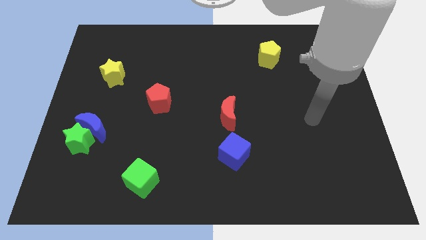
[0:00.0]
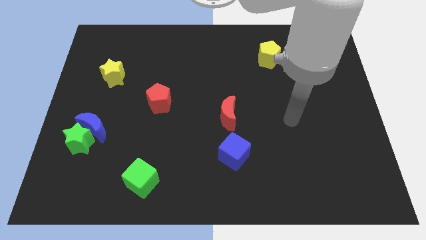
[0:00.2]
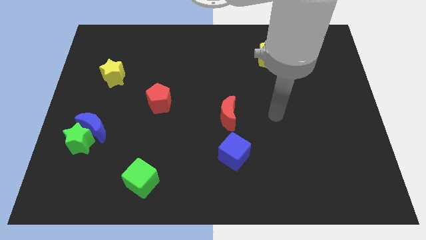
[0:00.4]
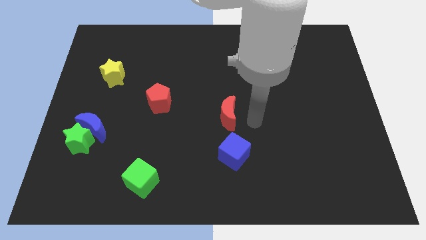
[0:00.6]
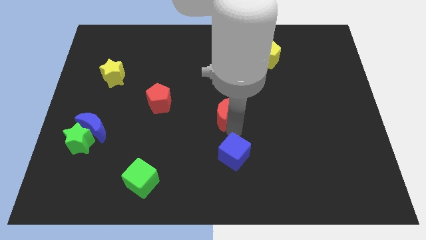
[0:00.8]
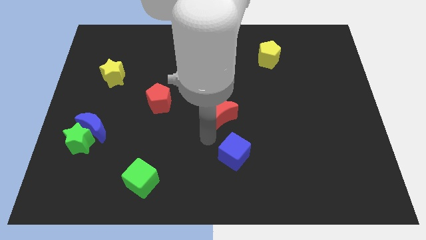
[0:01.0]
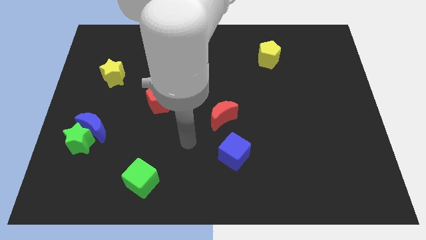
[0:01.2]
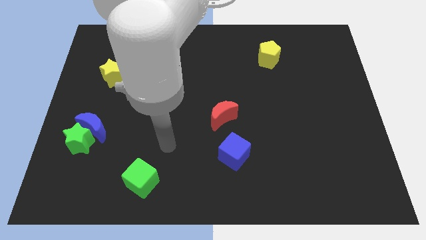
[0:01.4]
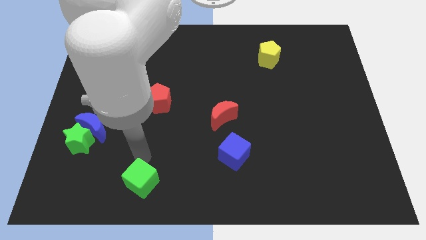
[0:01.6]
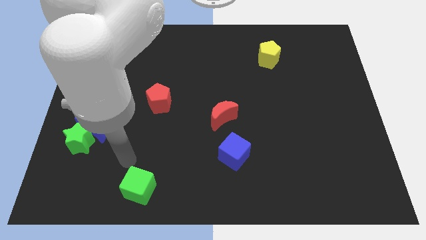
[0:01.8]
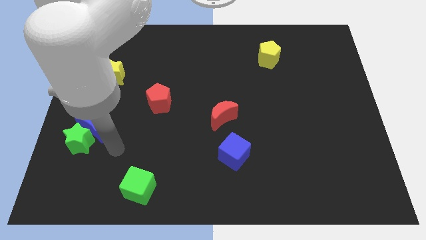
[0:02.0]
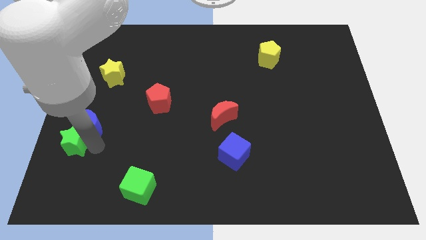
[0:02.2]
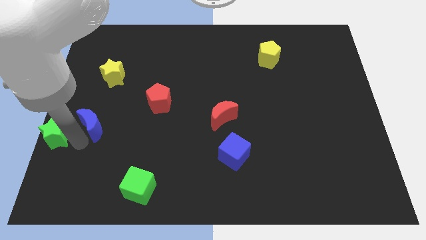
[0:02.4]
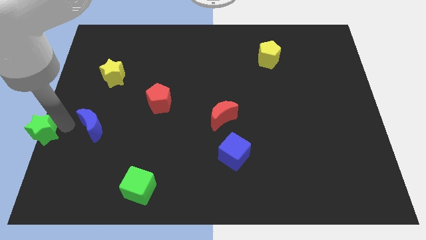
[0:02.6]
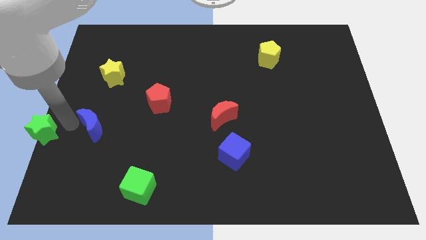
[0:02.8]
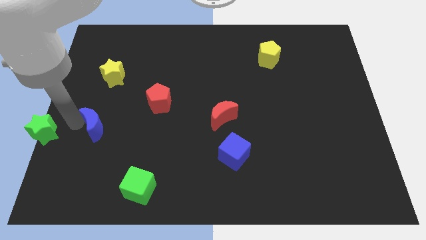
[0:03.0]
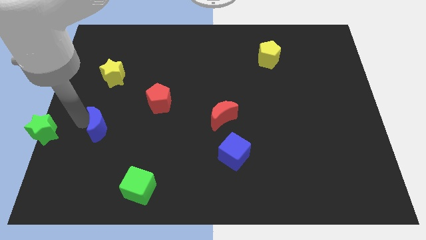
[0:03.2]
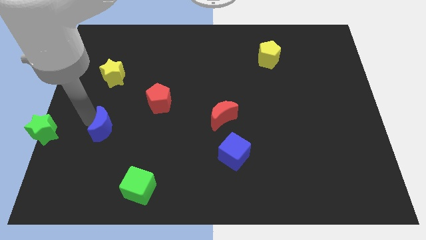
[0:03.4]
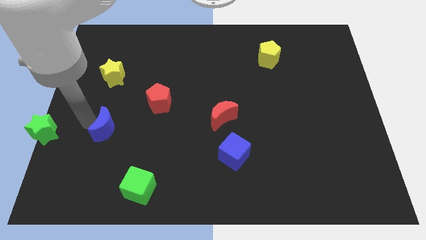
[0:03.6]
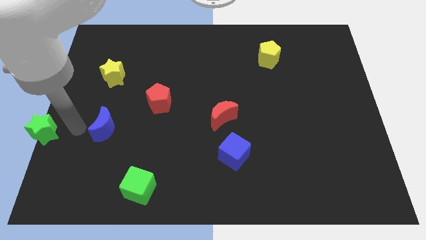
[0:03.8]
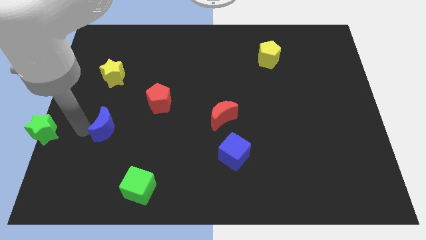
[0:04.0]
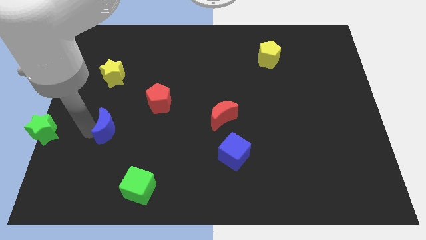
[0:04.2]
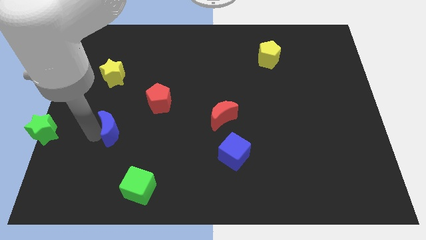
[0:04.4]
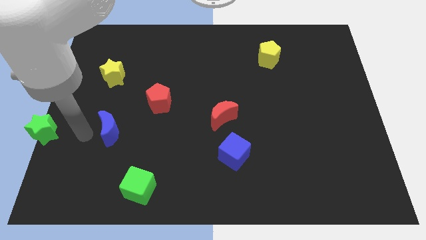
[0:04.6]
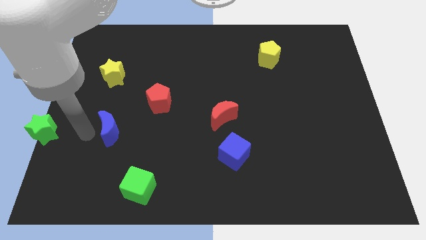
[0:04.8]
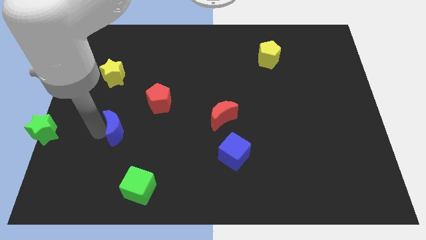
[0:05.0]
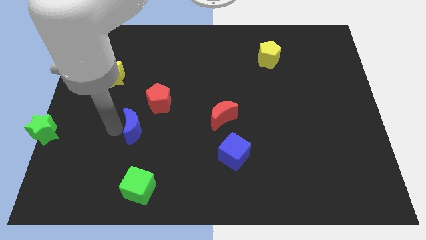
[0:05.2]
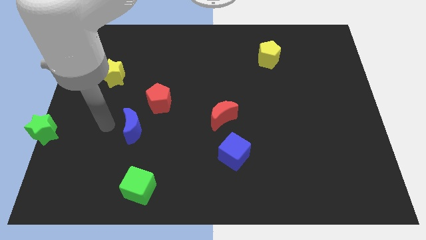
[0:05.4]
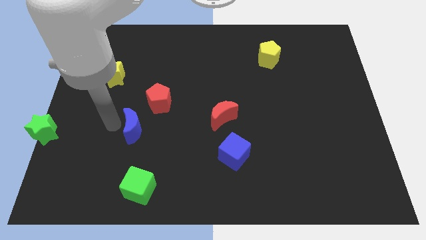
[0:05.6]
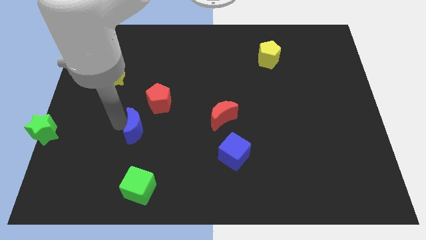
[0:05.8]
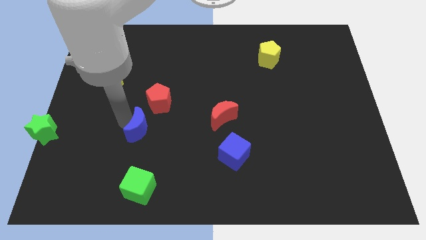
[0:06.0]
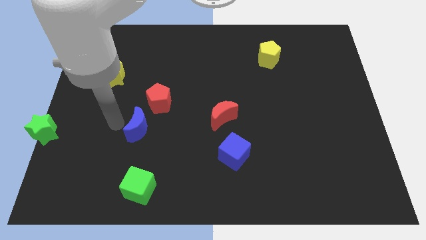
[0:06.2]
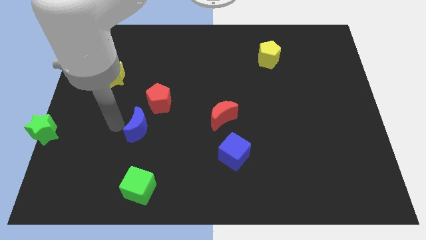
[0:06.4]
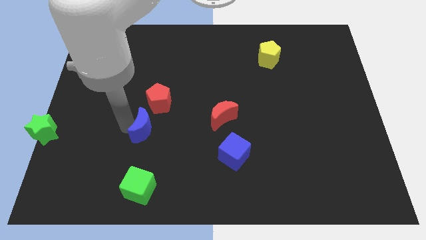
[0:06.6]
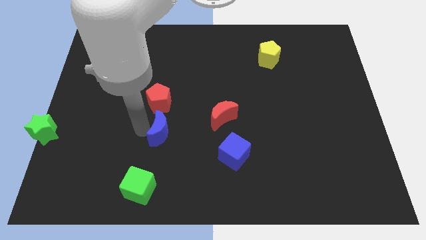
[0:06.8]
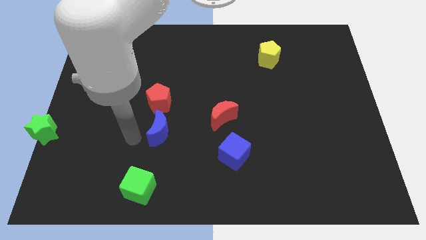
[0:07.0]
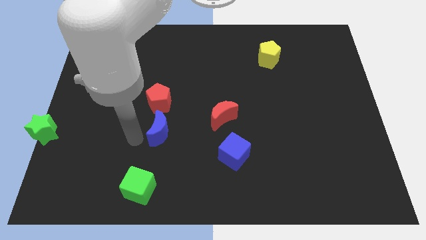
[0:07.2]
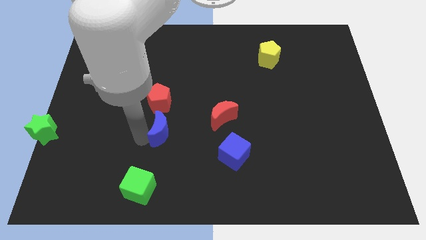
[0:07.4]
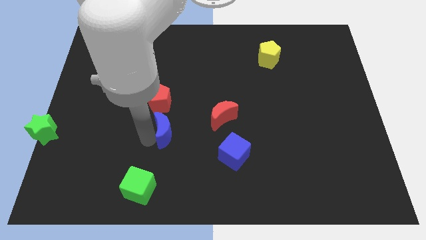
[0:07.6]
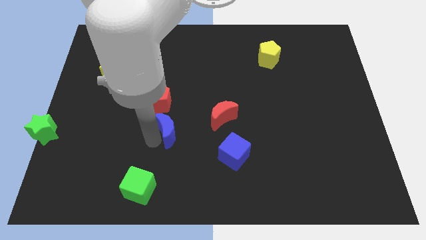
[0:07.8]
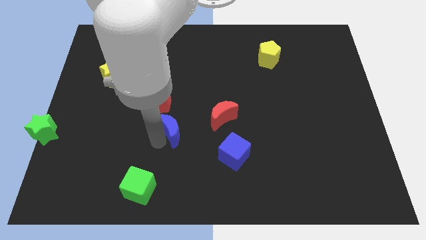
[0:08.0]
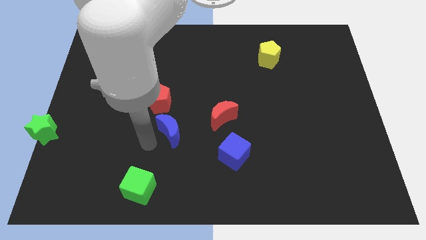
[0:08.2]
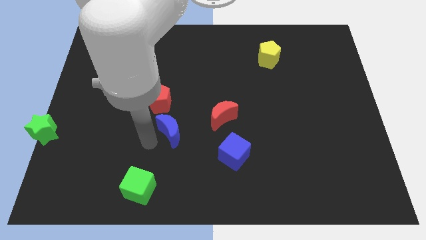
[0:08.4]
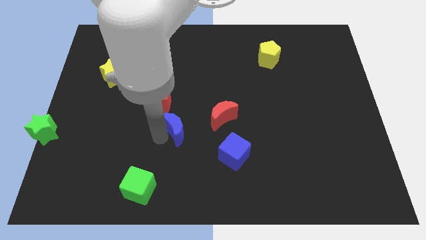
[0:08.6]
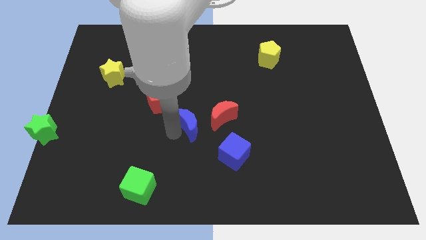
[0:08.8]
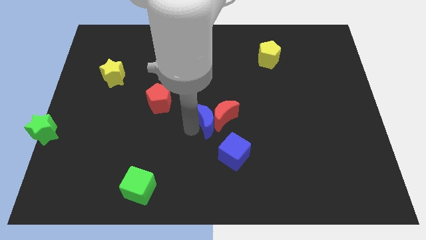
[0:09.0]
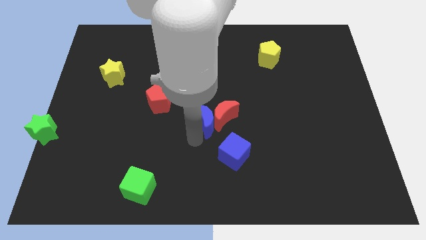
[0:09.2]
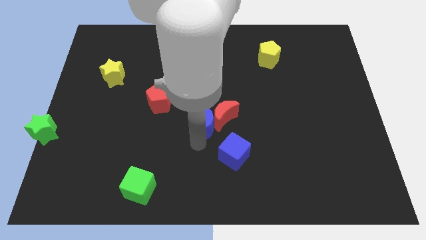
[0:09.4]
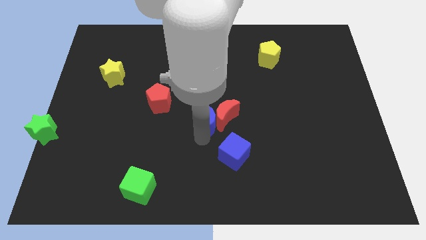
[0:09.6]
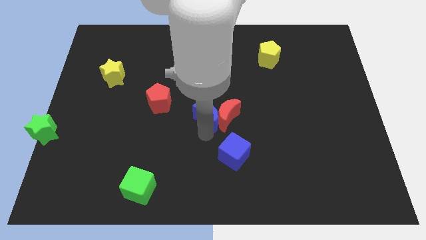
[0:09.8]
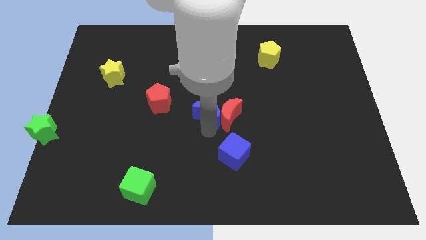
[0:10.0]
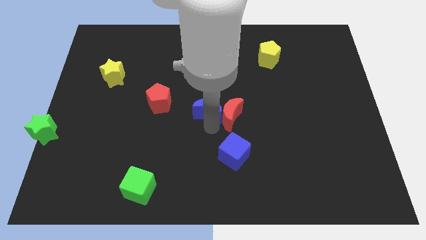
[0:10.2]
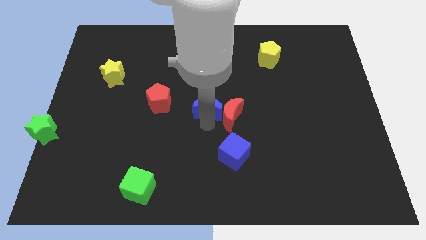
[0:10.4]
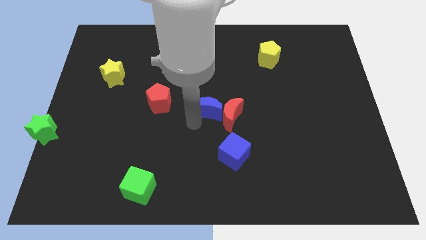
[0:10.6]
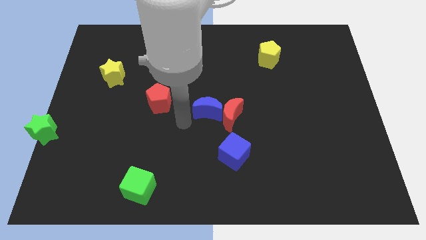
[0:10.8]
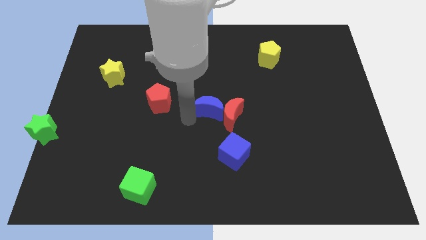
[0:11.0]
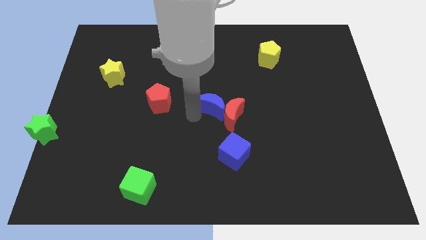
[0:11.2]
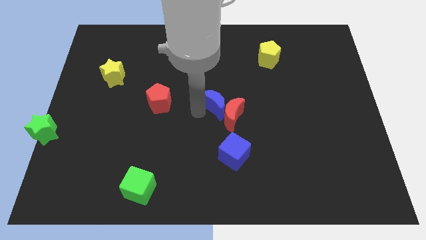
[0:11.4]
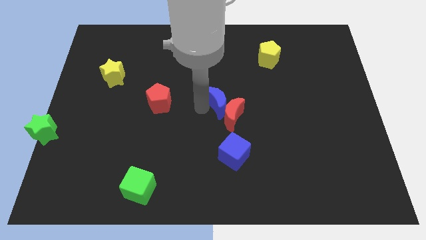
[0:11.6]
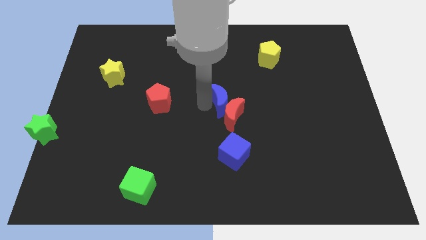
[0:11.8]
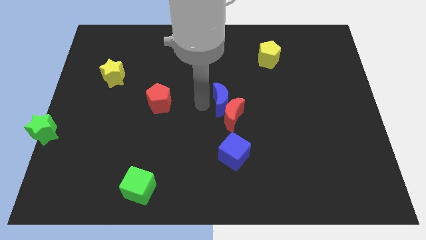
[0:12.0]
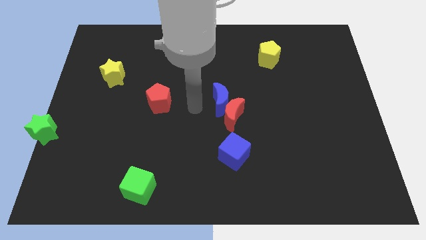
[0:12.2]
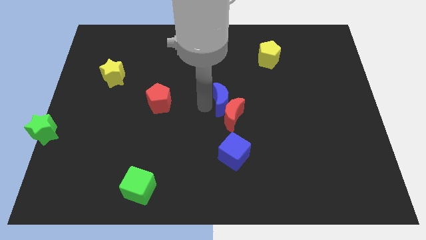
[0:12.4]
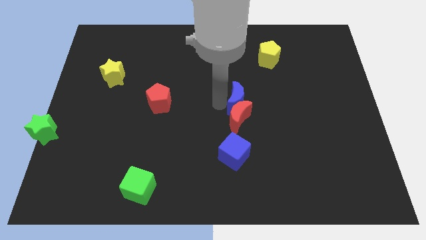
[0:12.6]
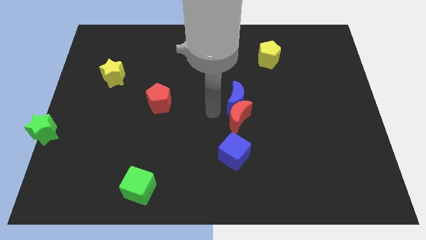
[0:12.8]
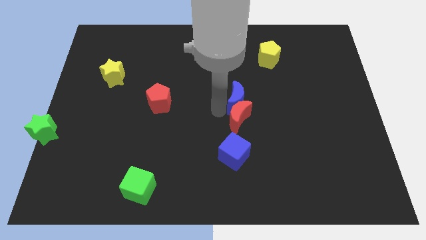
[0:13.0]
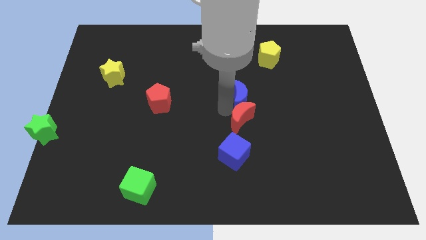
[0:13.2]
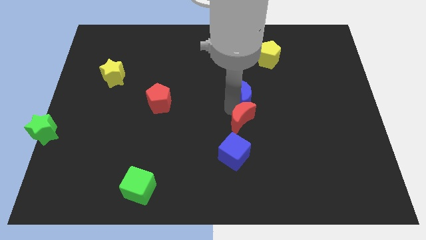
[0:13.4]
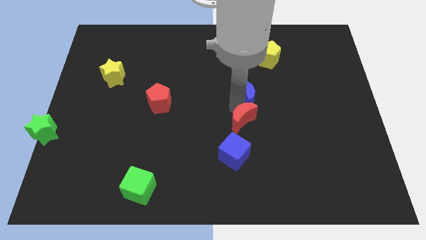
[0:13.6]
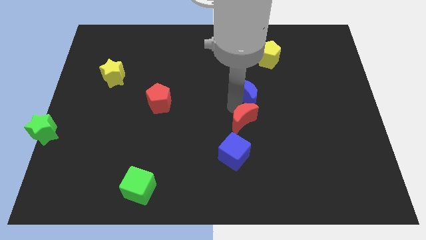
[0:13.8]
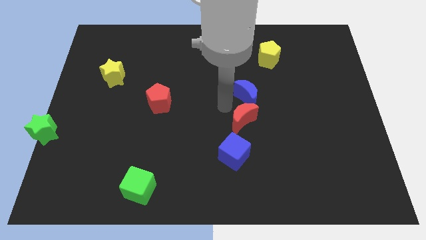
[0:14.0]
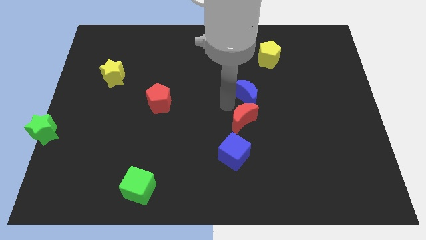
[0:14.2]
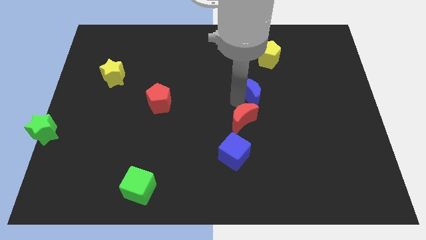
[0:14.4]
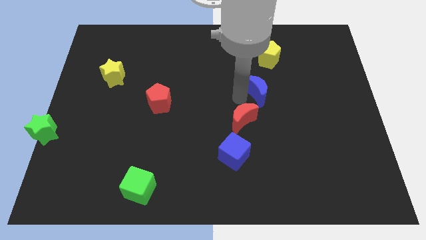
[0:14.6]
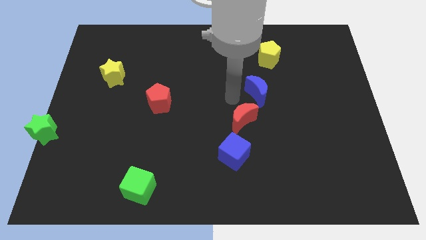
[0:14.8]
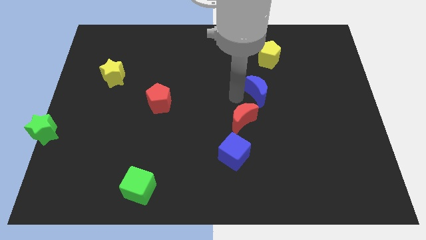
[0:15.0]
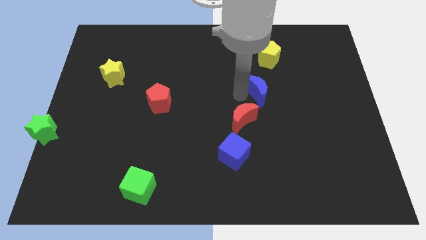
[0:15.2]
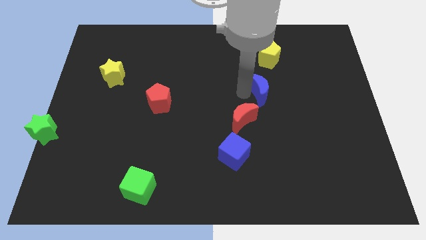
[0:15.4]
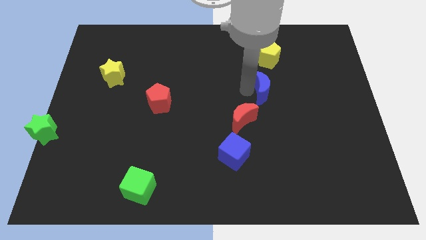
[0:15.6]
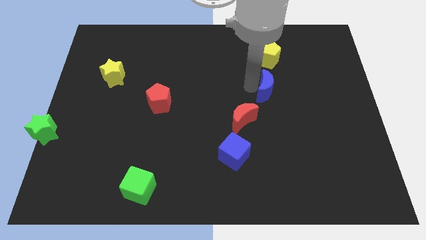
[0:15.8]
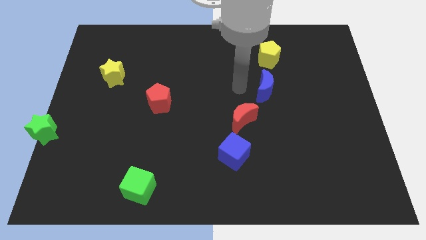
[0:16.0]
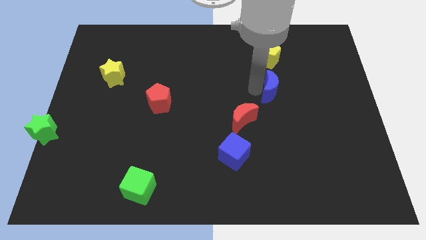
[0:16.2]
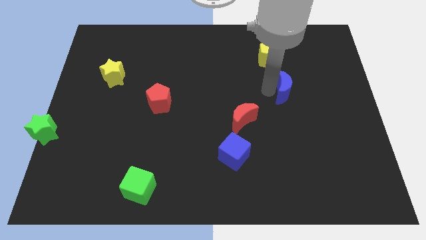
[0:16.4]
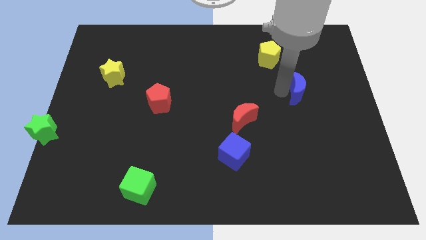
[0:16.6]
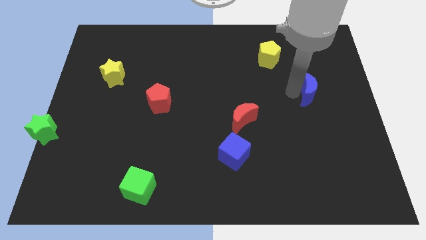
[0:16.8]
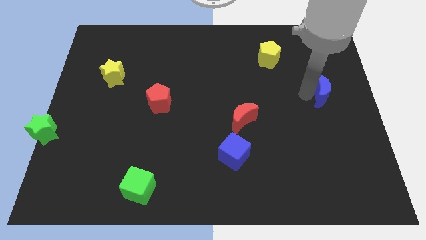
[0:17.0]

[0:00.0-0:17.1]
push the blue moon to the center right
